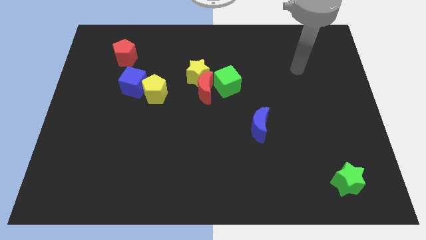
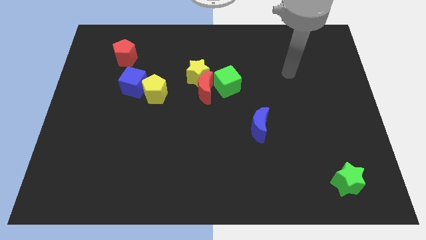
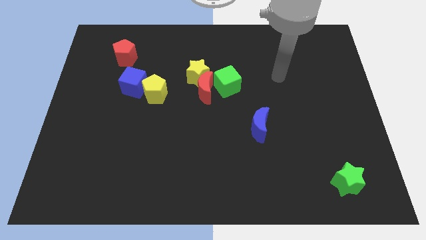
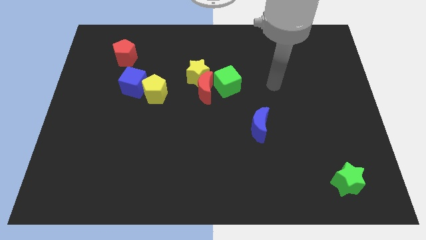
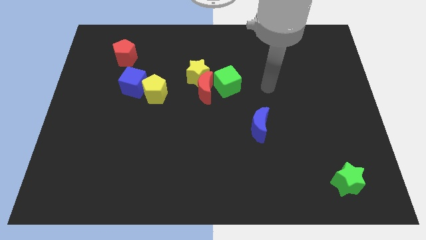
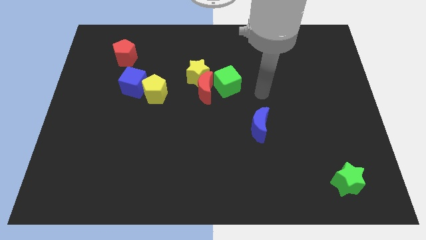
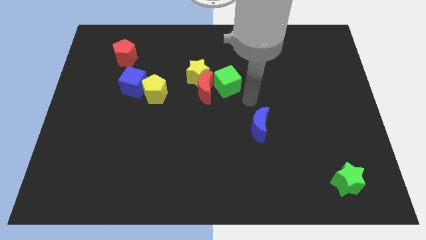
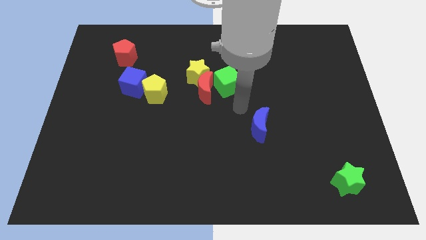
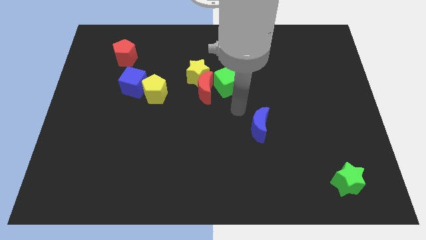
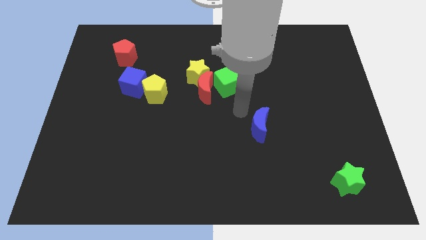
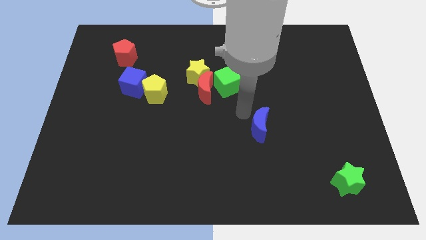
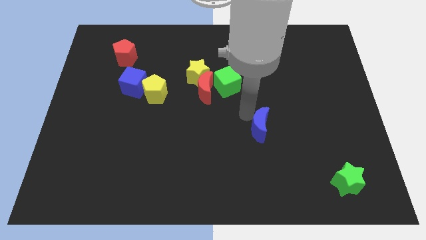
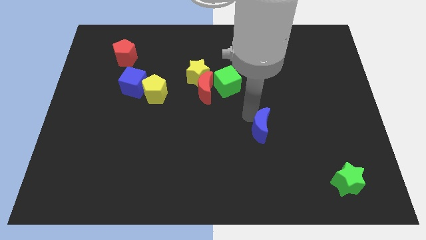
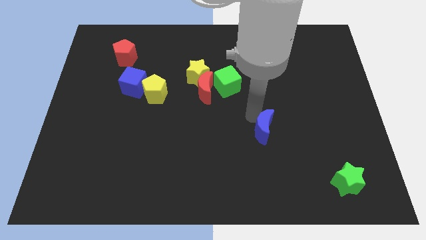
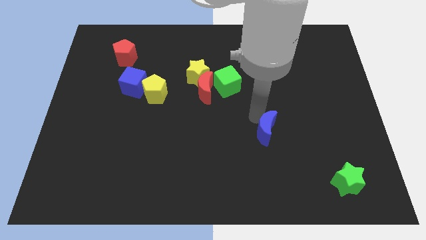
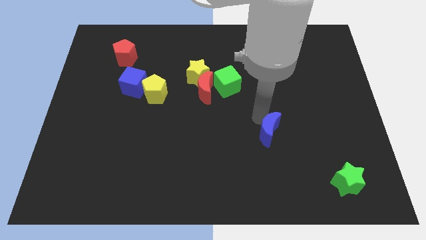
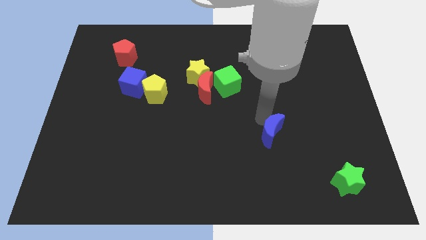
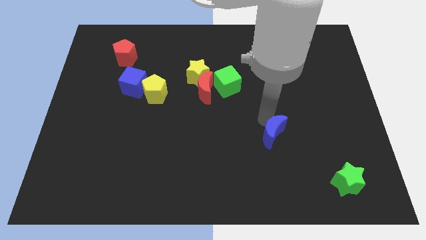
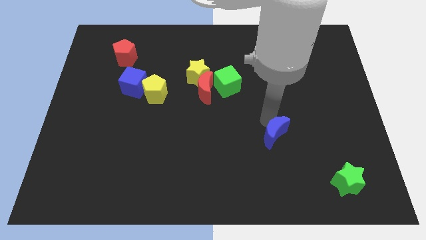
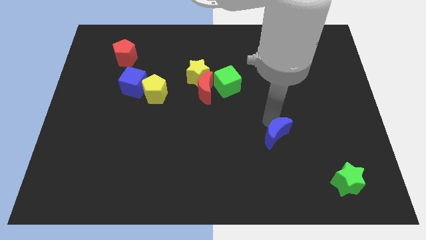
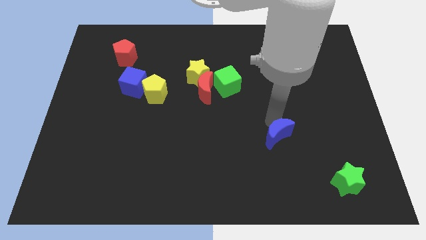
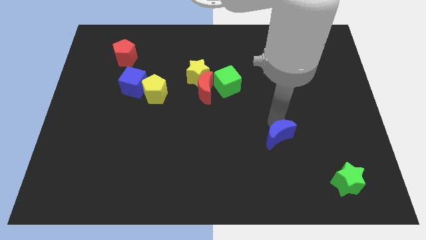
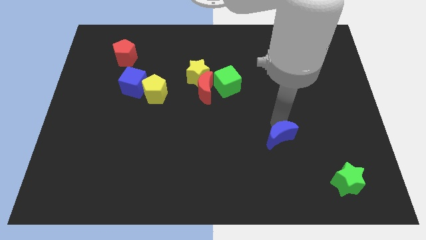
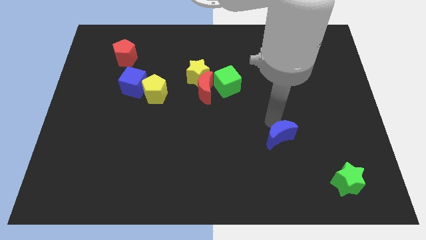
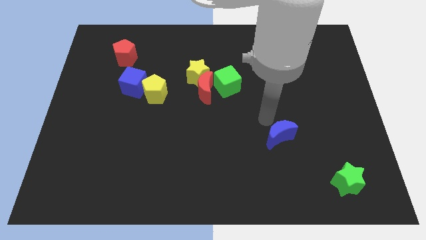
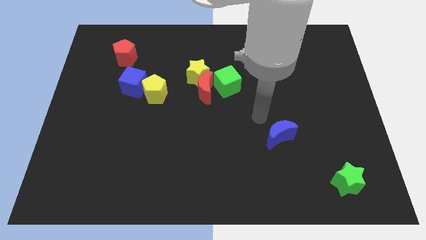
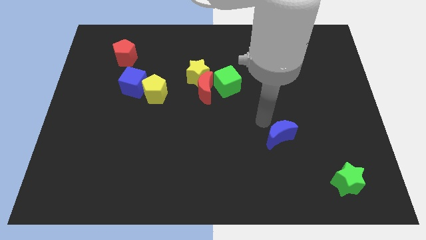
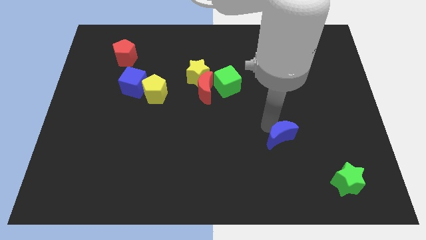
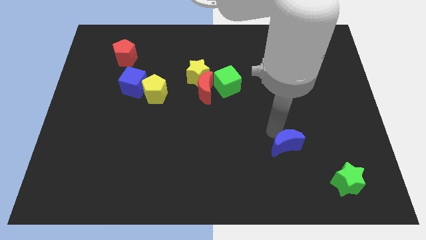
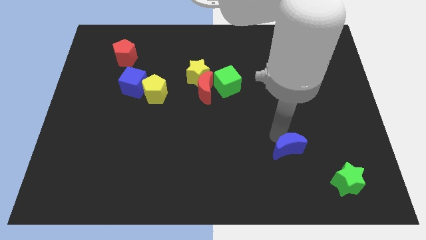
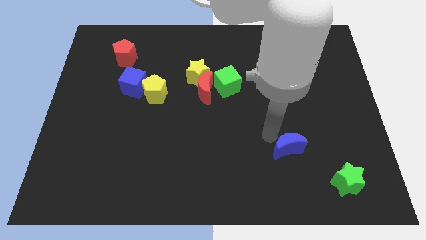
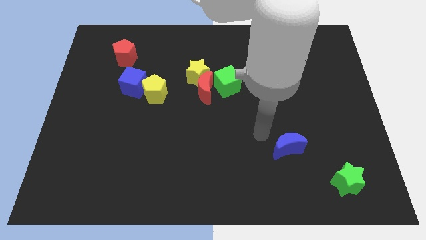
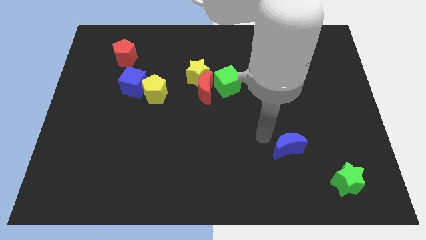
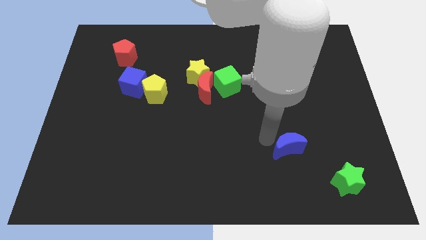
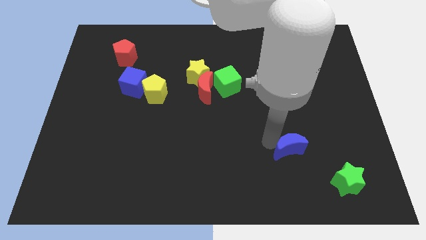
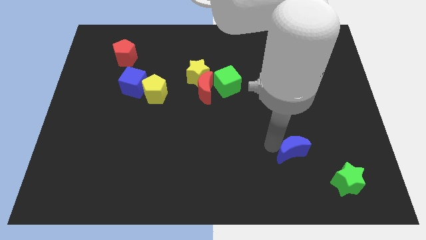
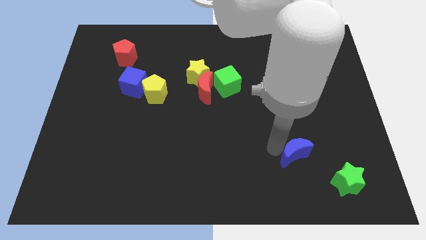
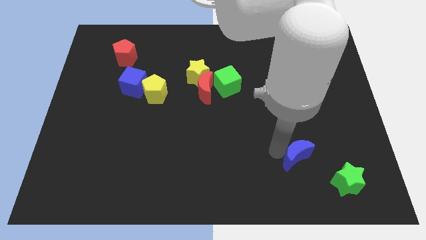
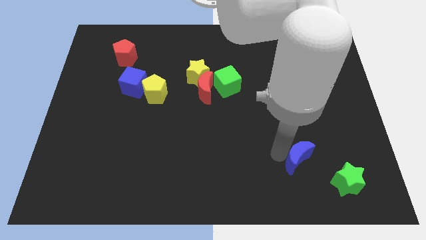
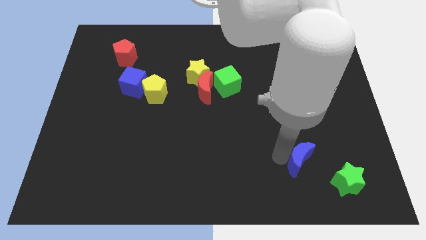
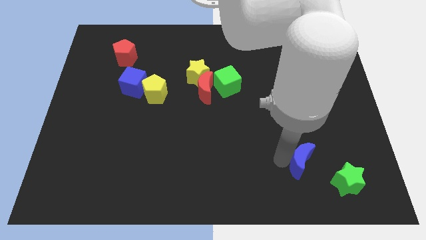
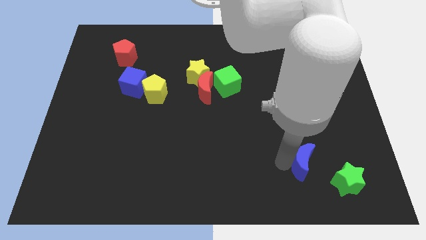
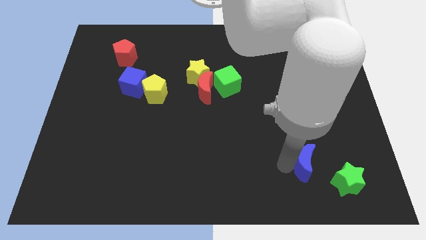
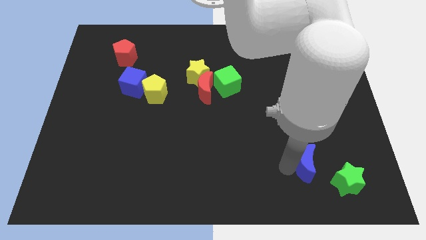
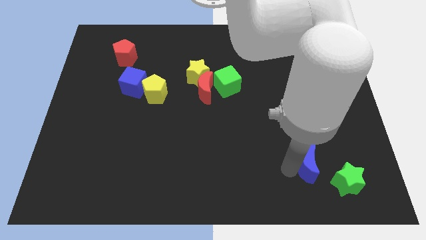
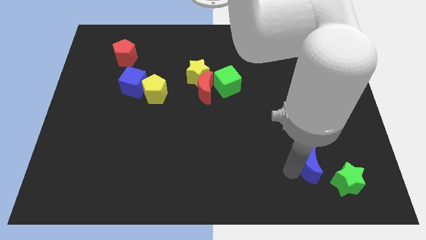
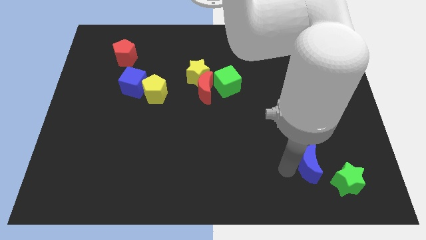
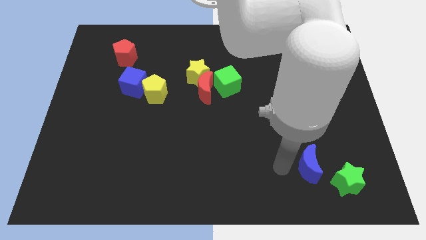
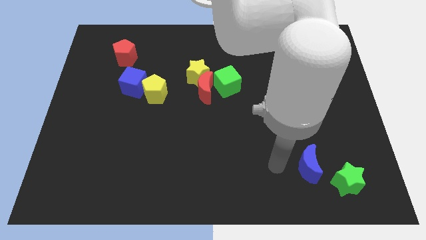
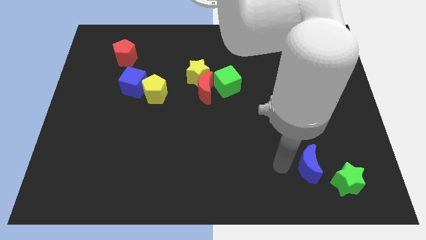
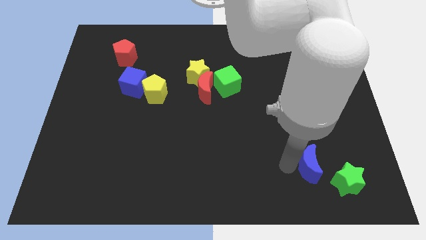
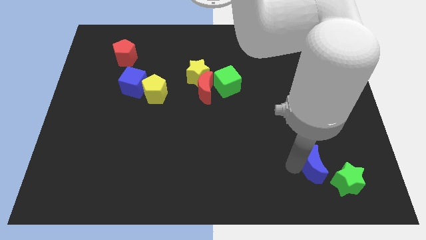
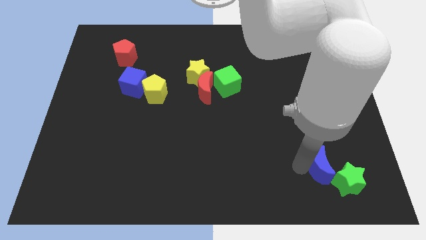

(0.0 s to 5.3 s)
put the blue moon to the green star

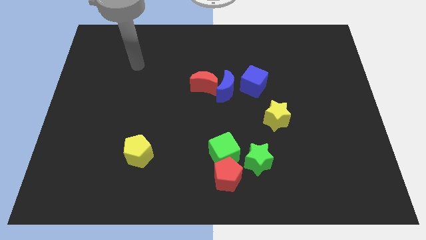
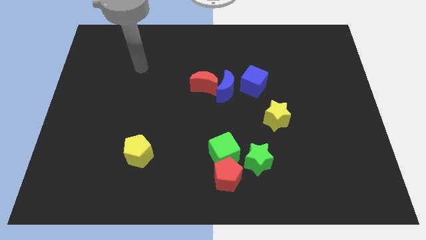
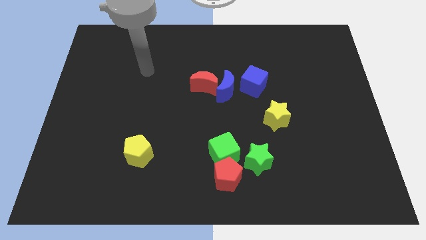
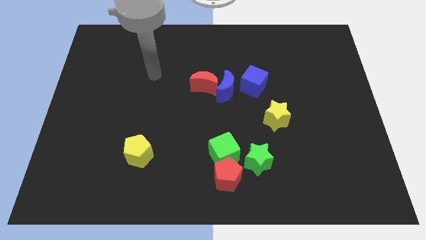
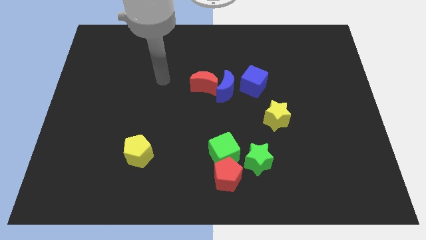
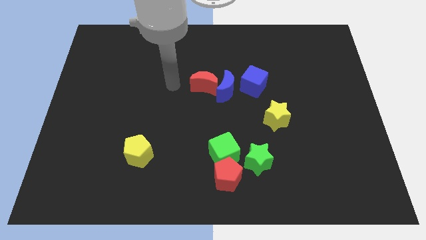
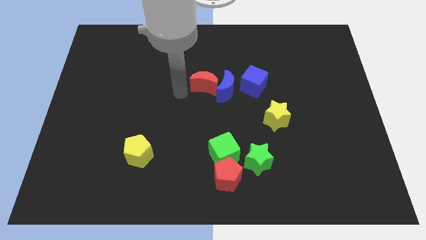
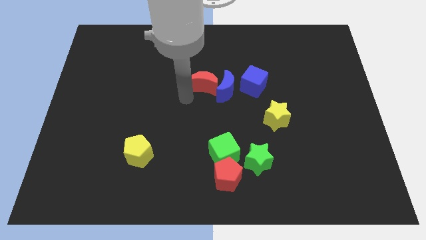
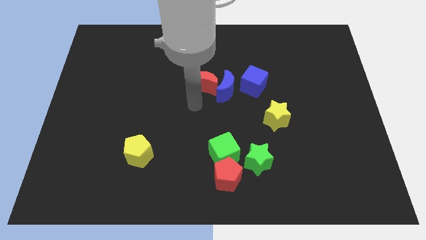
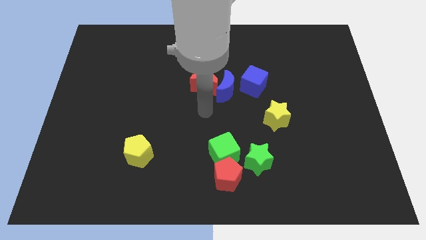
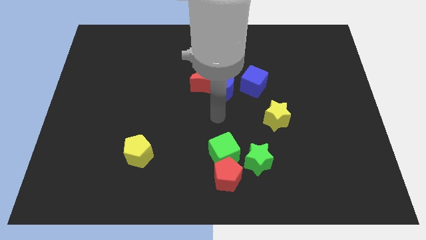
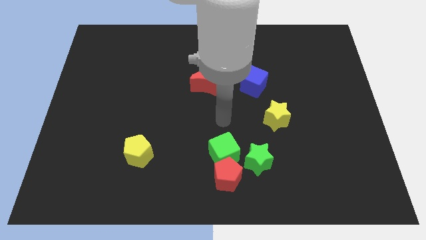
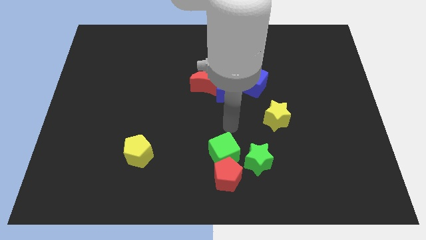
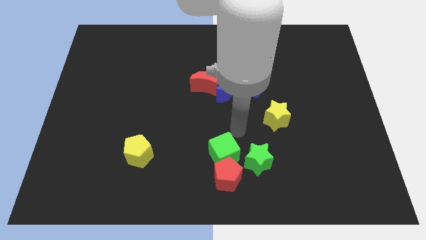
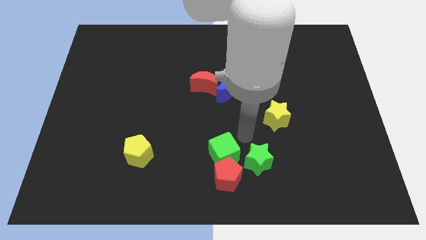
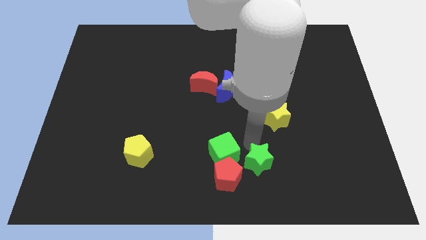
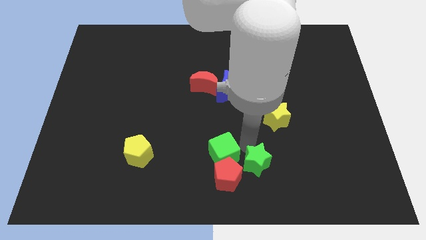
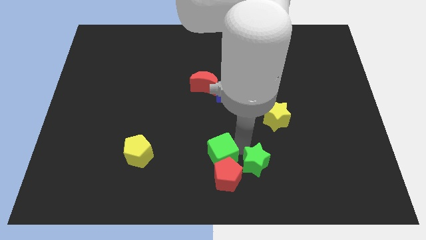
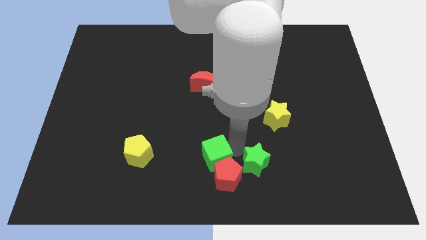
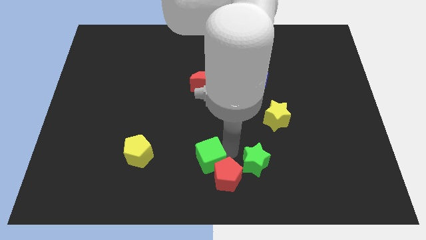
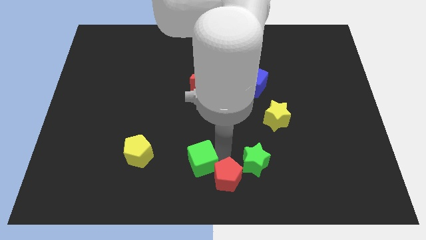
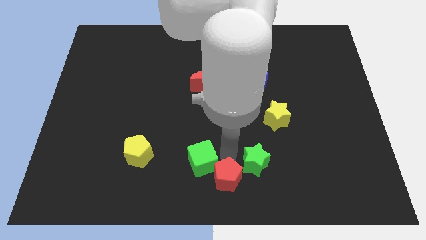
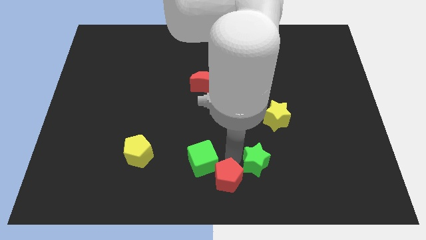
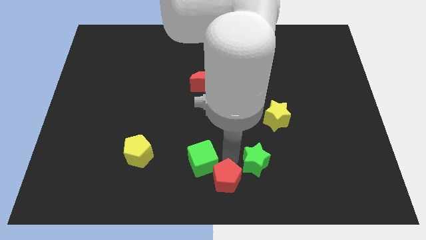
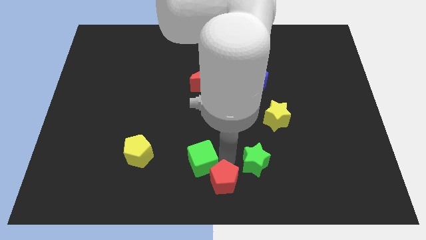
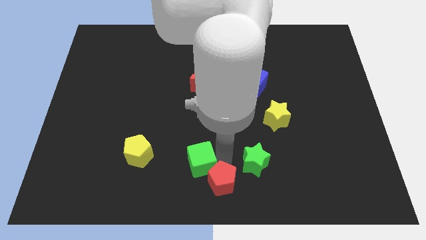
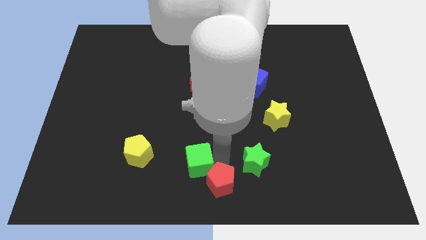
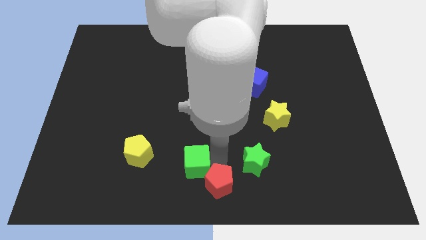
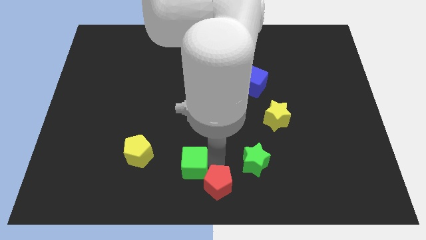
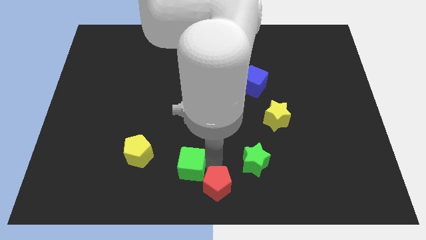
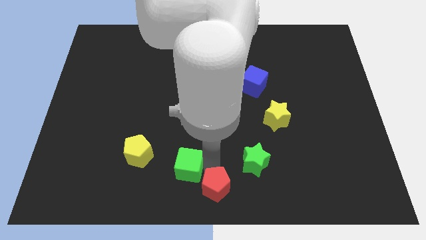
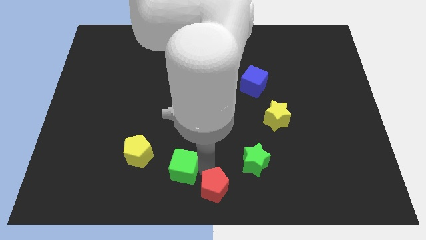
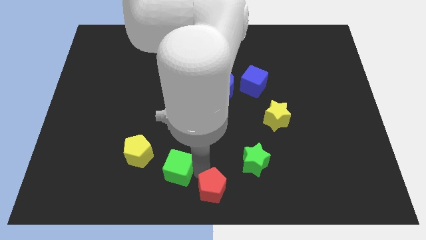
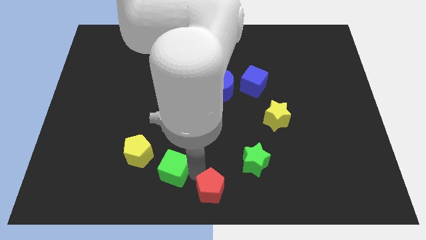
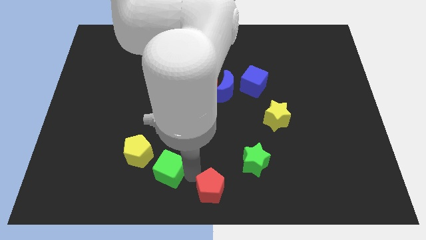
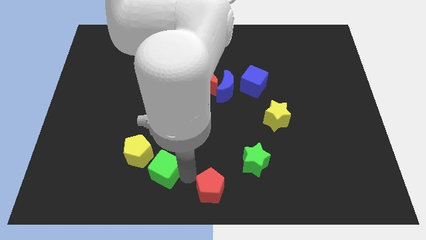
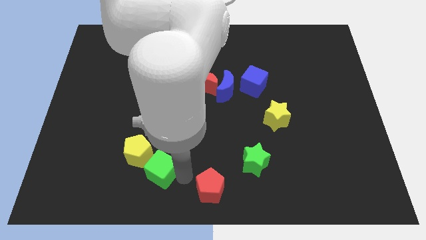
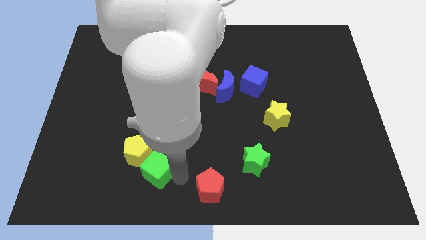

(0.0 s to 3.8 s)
put the green cube to the yellow pentagon
